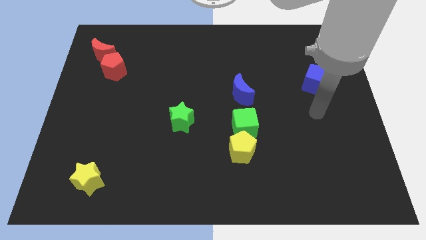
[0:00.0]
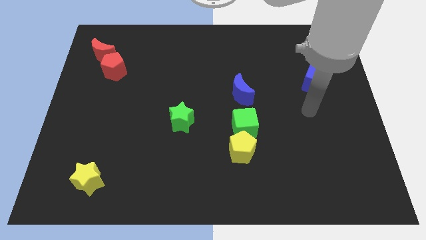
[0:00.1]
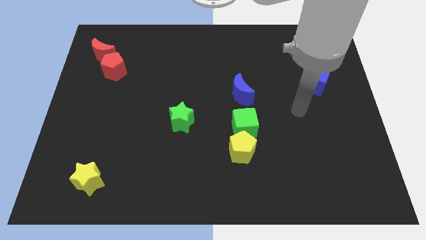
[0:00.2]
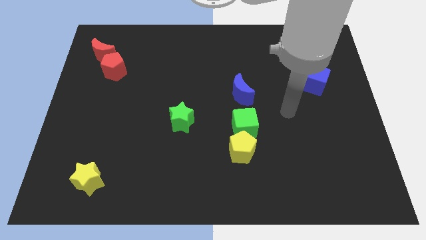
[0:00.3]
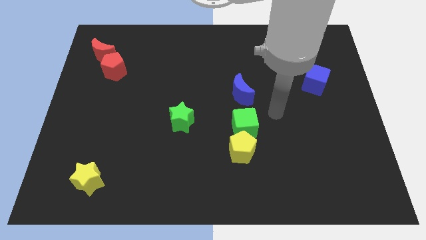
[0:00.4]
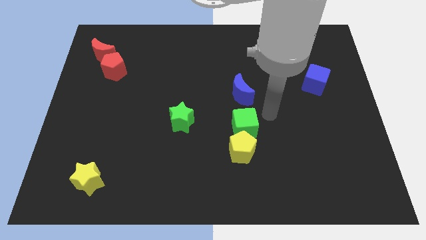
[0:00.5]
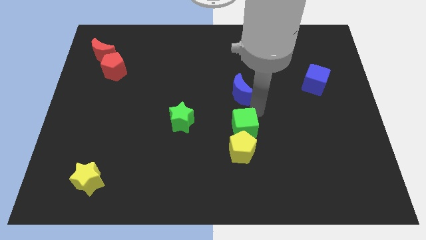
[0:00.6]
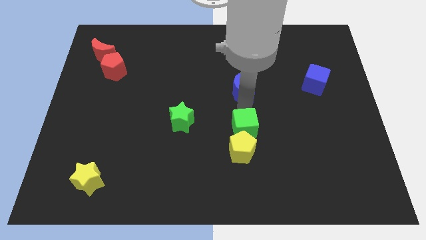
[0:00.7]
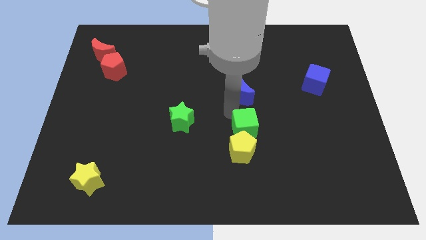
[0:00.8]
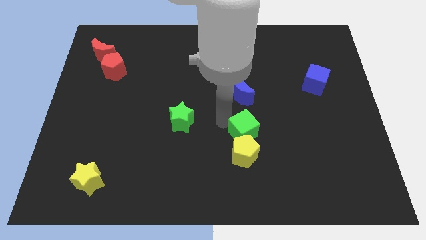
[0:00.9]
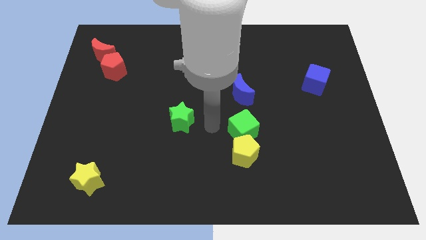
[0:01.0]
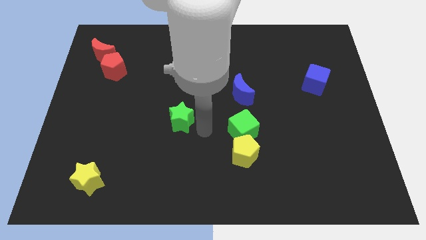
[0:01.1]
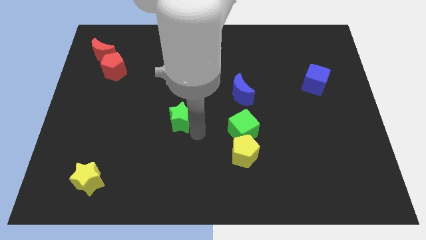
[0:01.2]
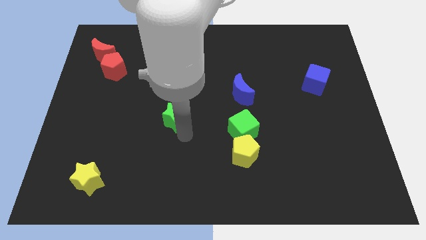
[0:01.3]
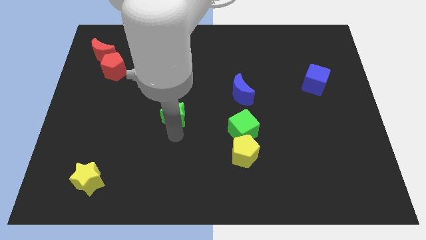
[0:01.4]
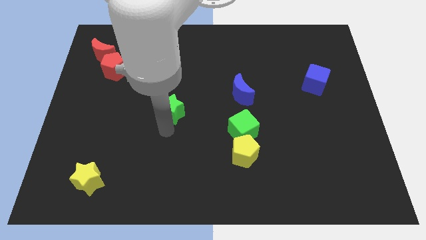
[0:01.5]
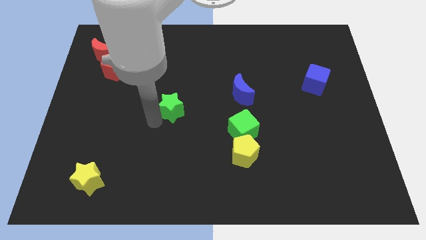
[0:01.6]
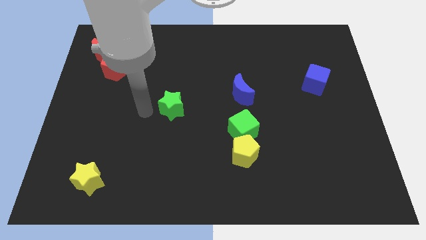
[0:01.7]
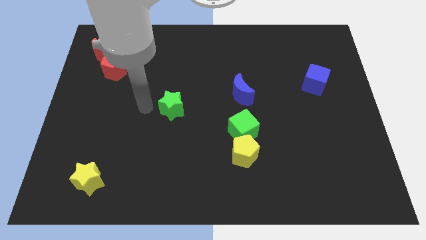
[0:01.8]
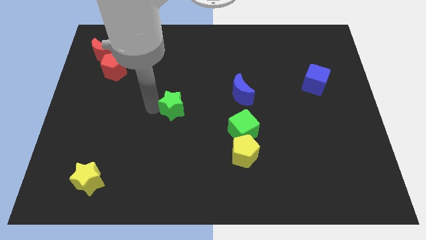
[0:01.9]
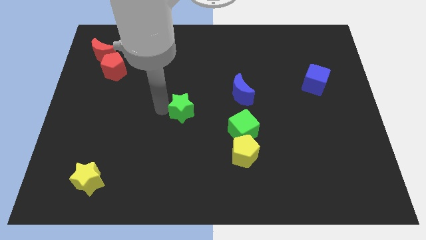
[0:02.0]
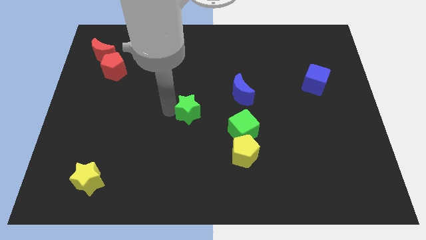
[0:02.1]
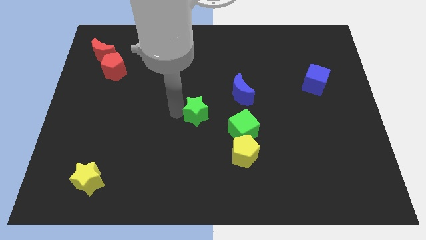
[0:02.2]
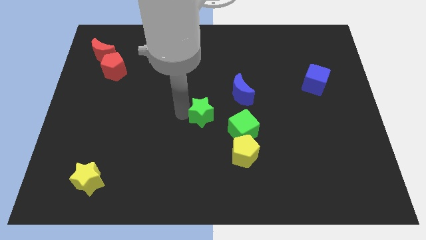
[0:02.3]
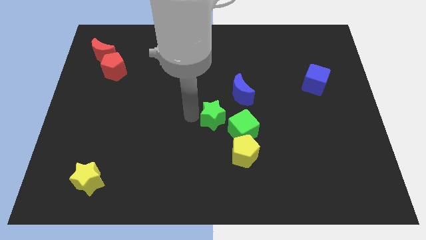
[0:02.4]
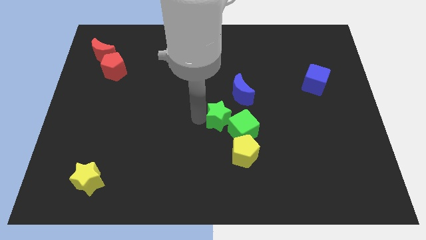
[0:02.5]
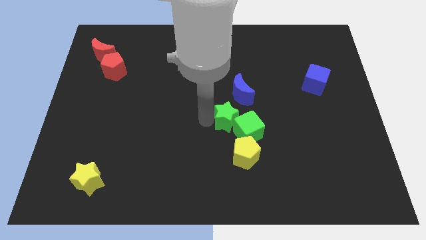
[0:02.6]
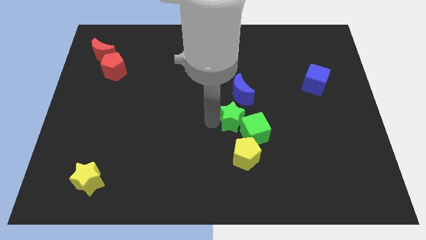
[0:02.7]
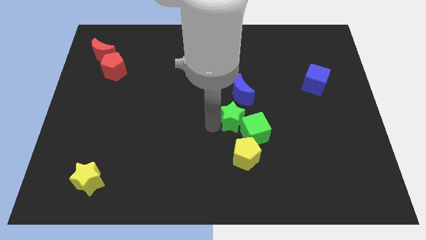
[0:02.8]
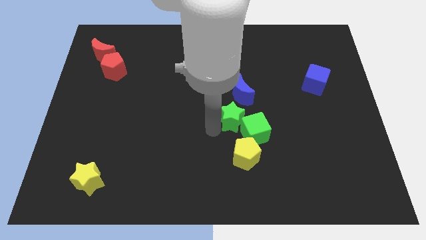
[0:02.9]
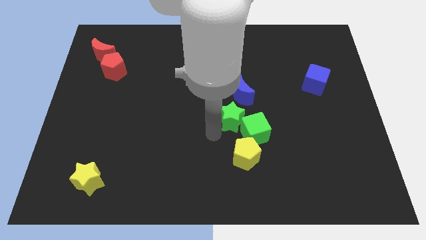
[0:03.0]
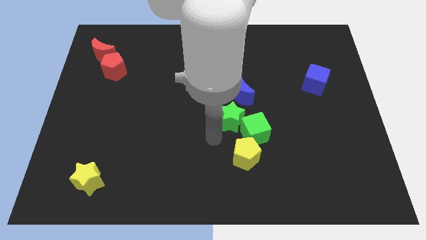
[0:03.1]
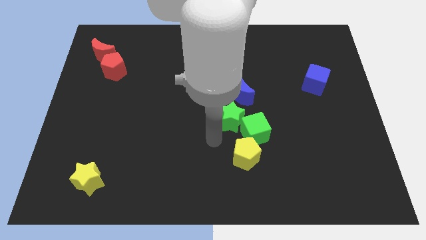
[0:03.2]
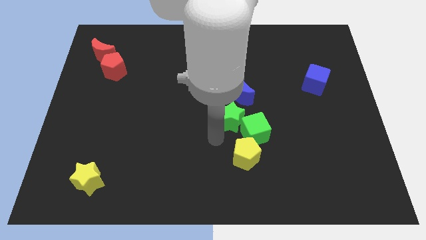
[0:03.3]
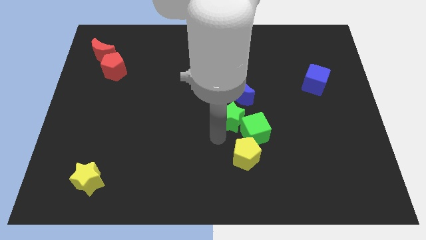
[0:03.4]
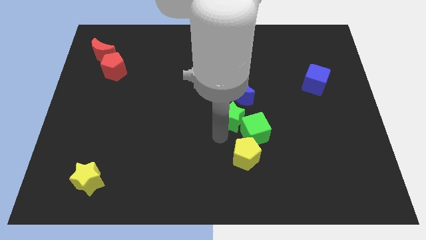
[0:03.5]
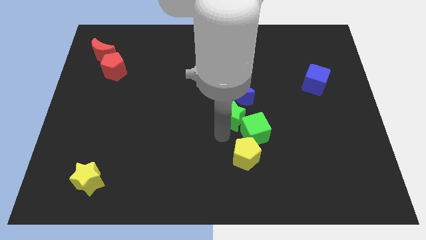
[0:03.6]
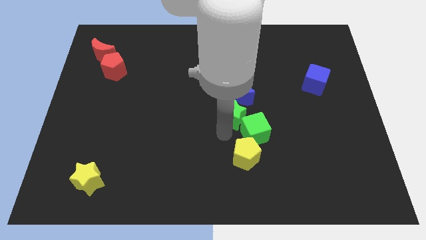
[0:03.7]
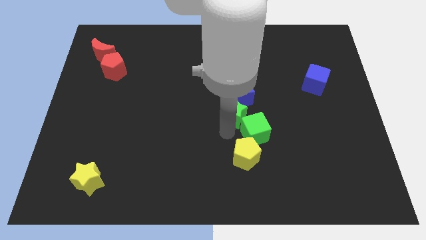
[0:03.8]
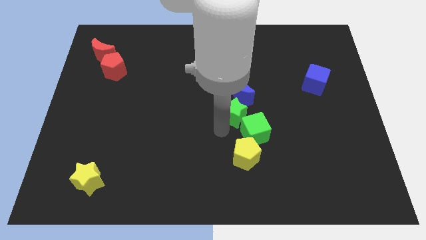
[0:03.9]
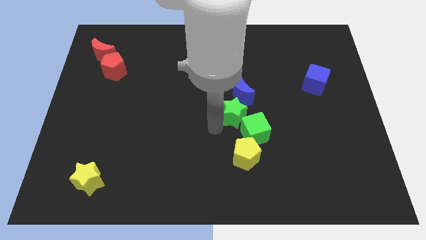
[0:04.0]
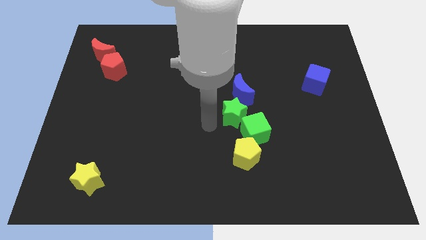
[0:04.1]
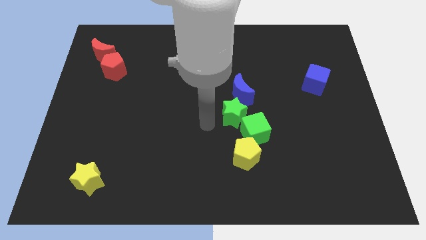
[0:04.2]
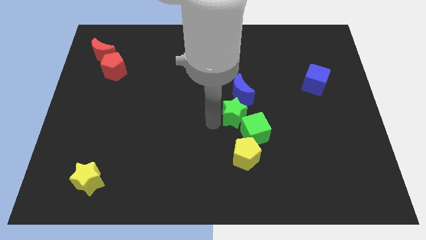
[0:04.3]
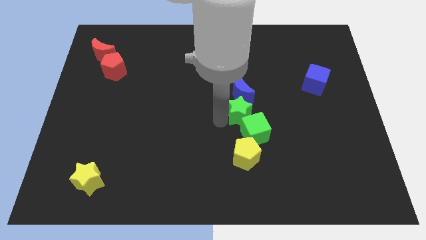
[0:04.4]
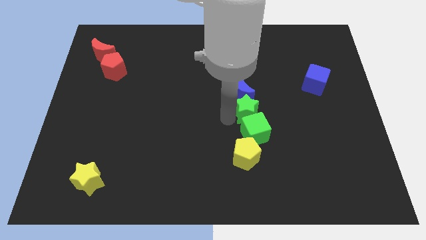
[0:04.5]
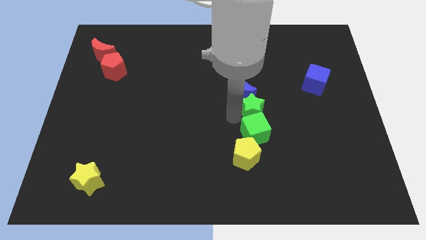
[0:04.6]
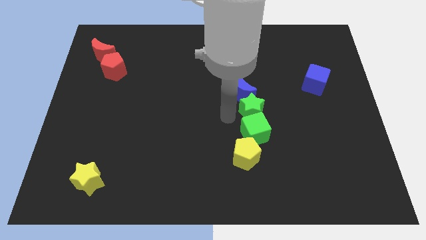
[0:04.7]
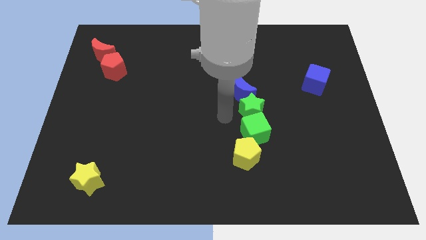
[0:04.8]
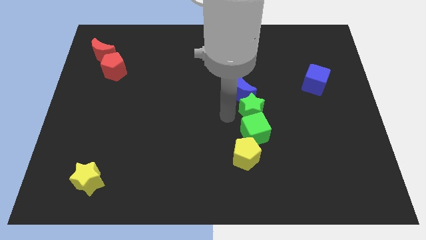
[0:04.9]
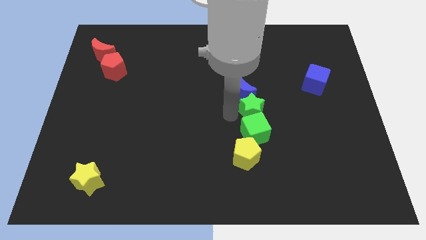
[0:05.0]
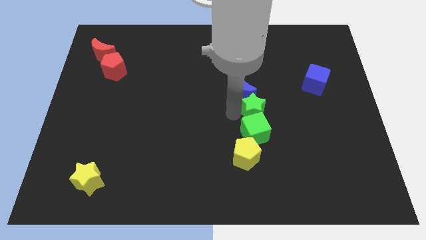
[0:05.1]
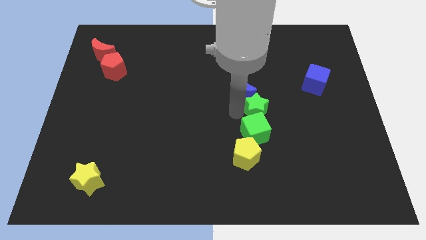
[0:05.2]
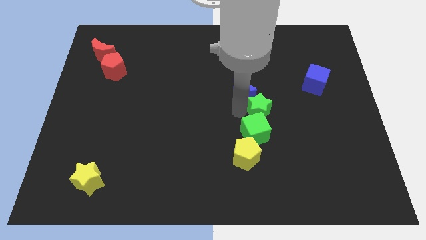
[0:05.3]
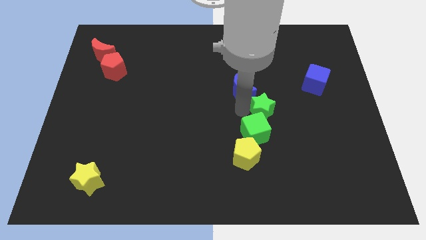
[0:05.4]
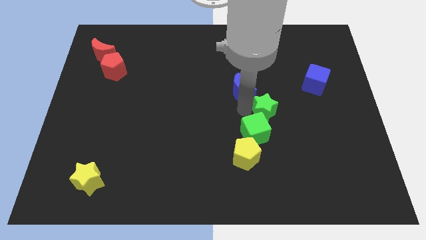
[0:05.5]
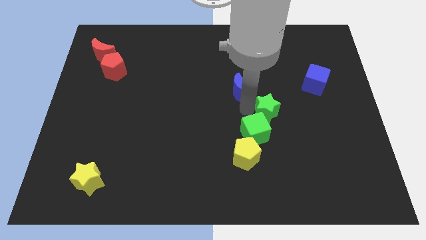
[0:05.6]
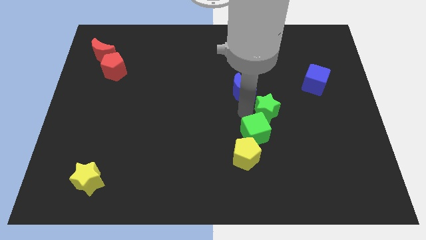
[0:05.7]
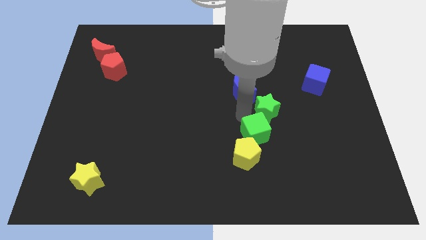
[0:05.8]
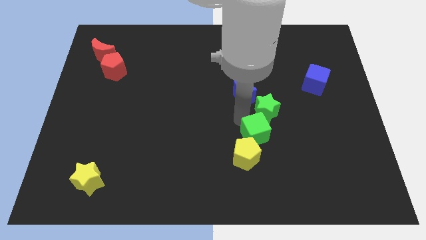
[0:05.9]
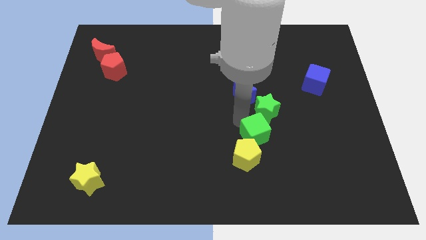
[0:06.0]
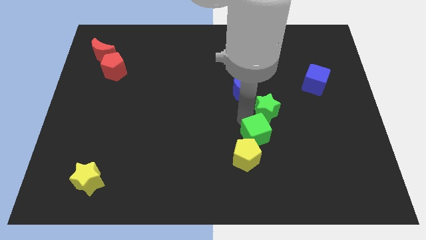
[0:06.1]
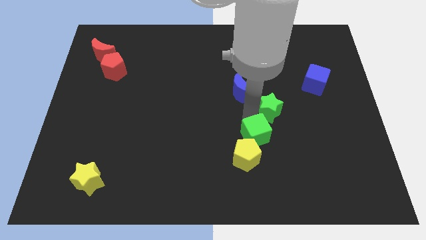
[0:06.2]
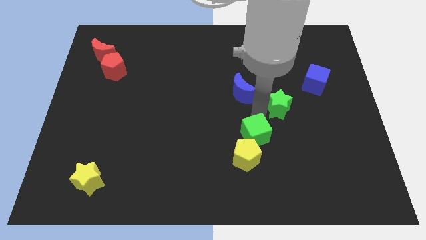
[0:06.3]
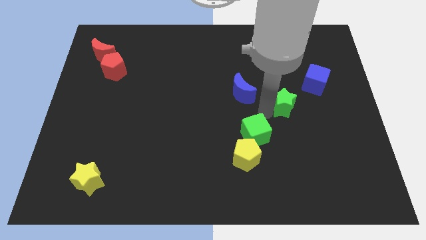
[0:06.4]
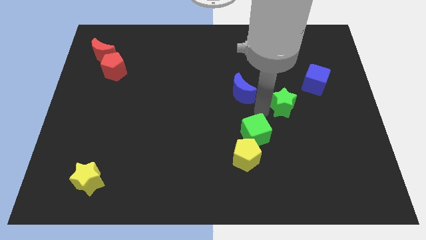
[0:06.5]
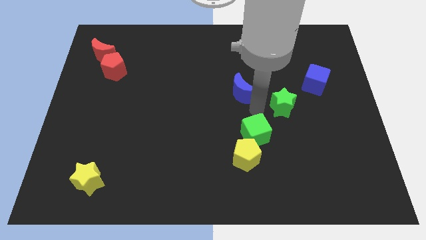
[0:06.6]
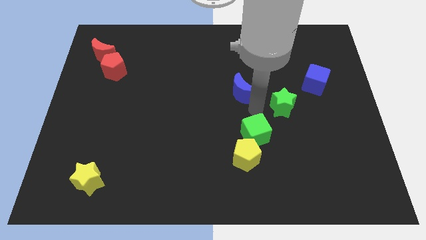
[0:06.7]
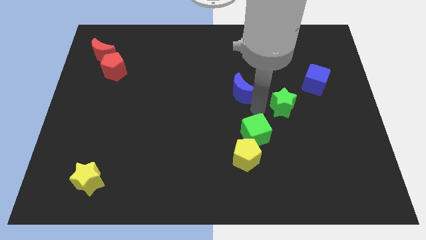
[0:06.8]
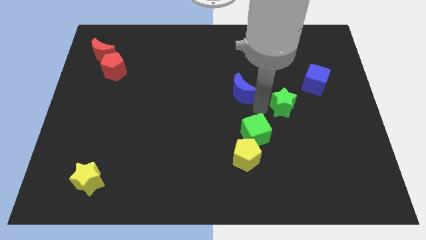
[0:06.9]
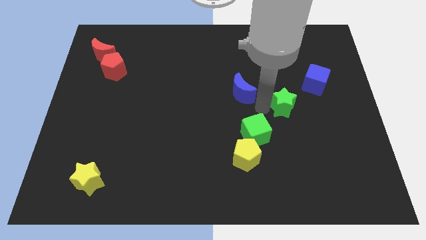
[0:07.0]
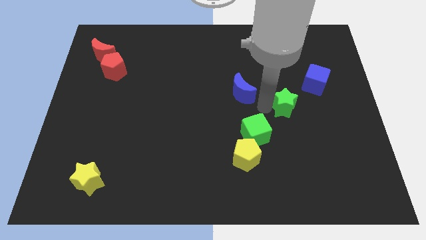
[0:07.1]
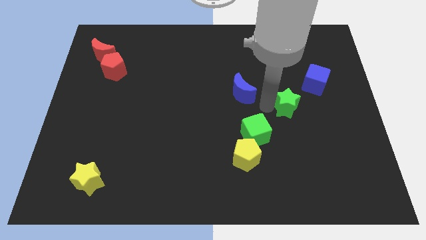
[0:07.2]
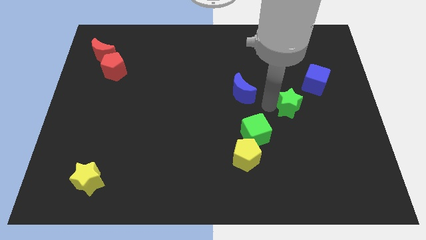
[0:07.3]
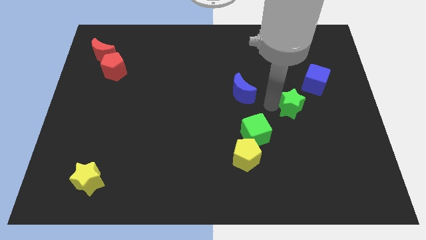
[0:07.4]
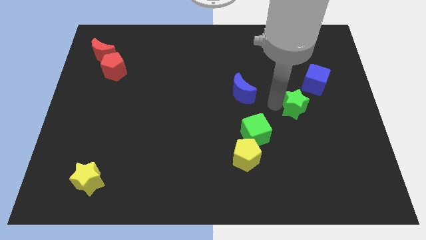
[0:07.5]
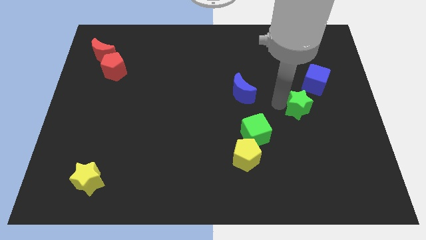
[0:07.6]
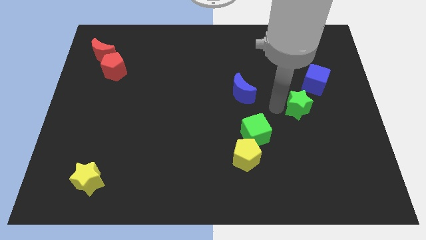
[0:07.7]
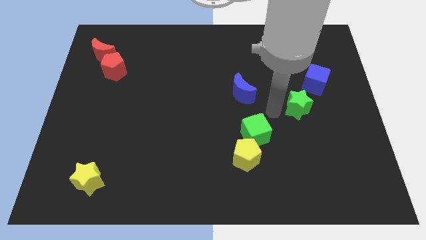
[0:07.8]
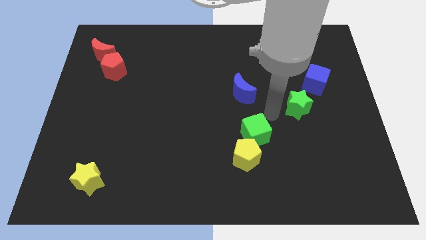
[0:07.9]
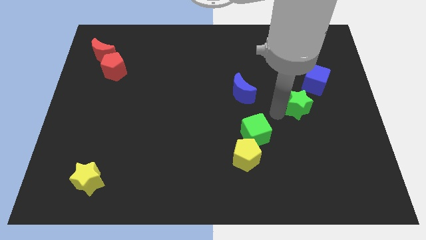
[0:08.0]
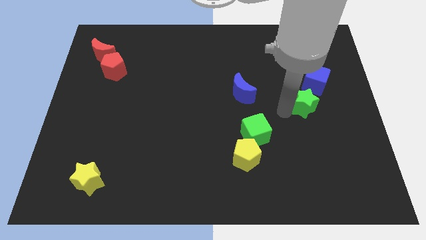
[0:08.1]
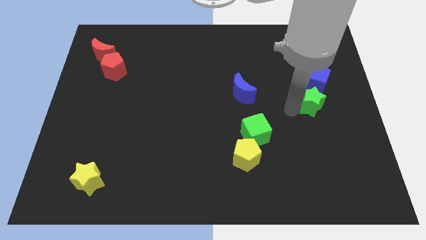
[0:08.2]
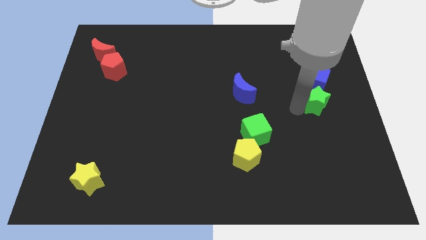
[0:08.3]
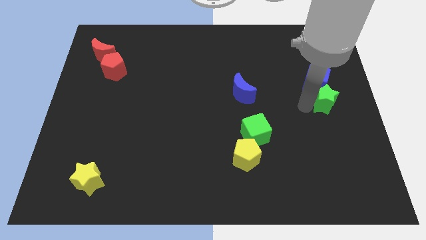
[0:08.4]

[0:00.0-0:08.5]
slide the green star to the right side of the board

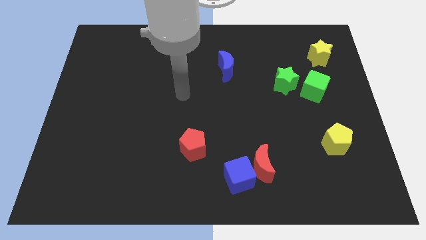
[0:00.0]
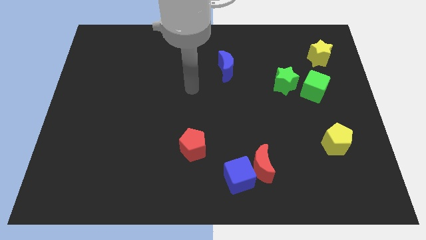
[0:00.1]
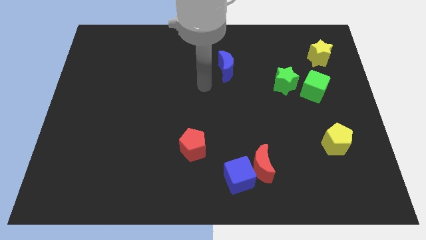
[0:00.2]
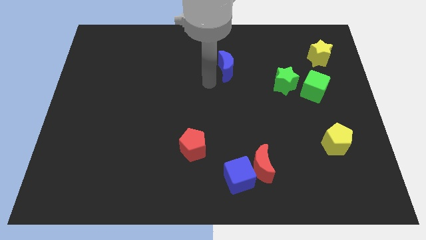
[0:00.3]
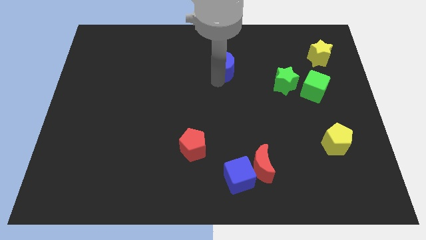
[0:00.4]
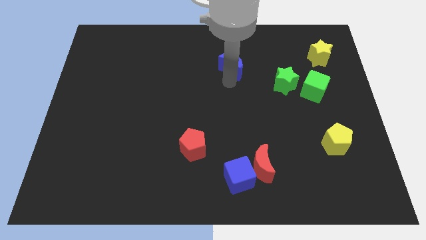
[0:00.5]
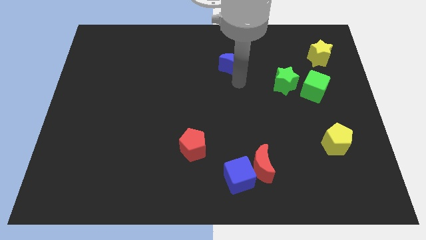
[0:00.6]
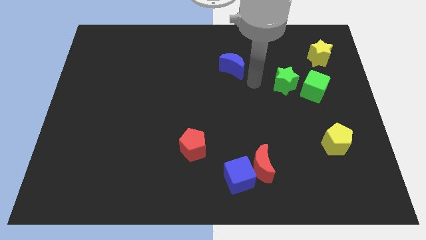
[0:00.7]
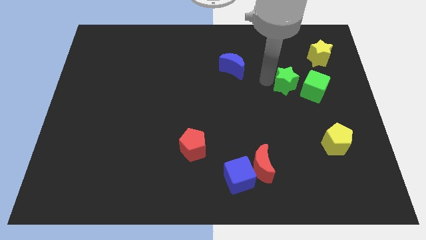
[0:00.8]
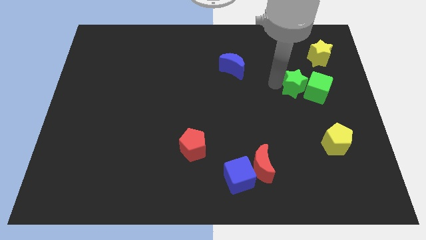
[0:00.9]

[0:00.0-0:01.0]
slide the green cube to the center right
